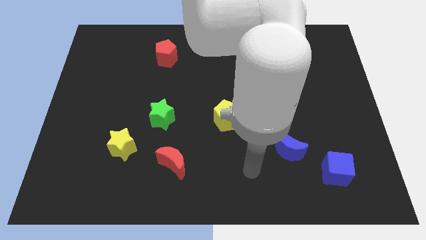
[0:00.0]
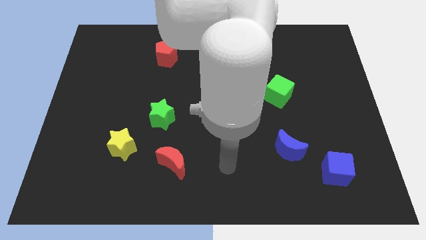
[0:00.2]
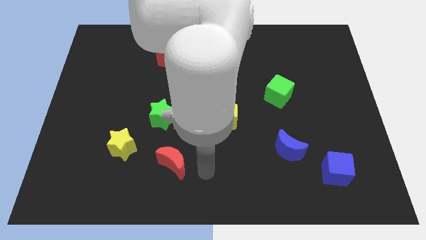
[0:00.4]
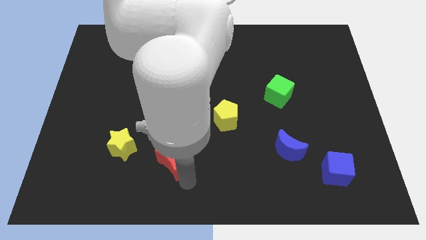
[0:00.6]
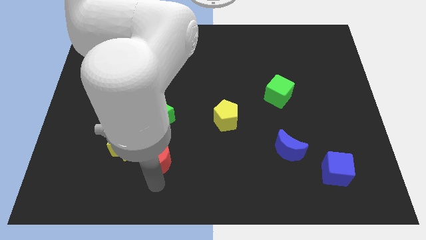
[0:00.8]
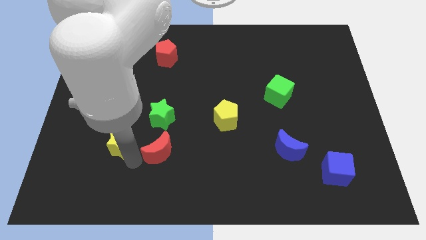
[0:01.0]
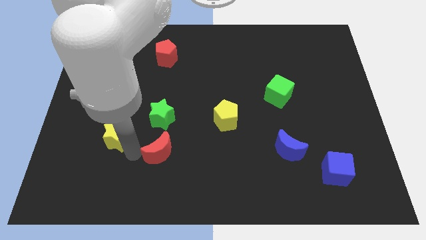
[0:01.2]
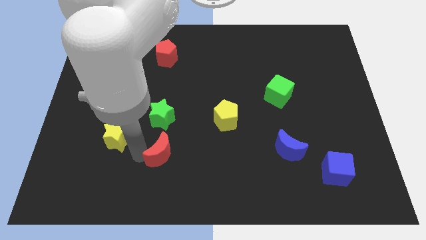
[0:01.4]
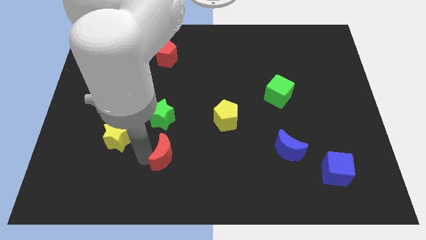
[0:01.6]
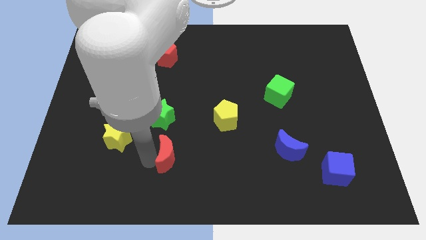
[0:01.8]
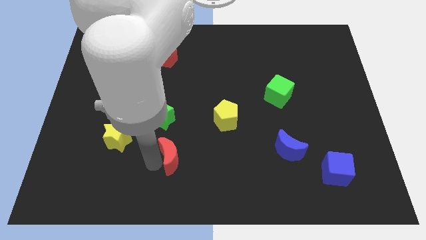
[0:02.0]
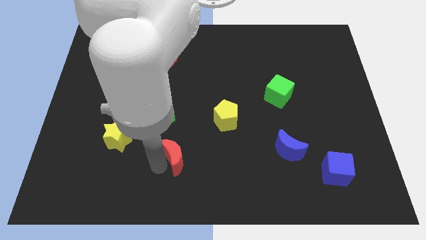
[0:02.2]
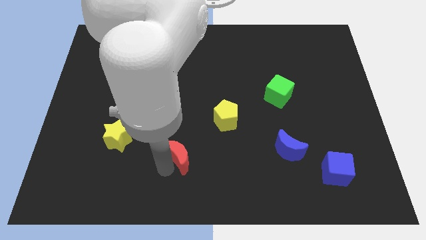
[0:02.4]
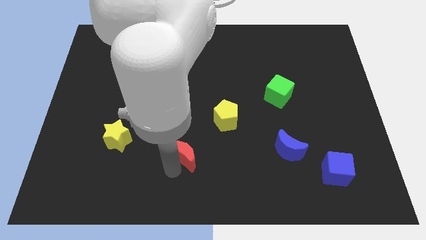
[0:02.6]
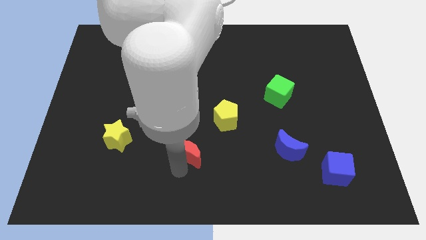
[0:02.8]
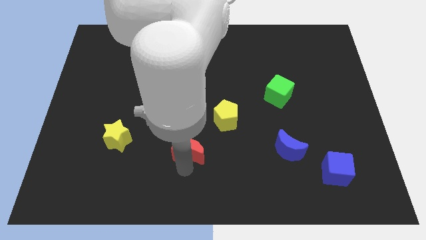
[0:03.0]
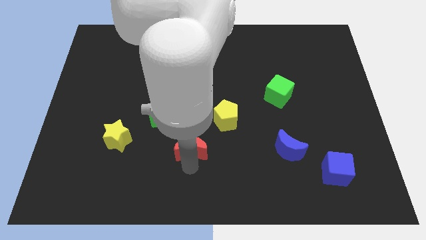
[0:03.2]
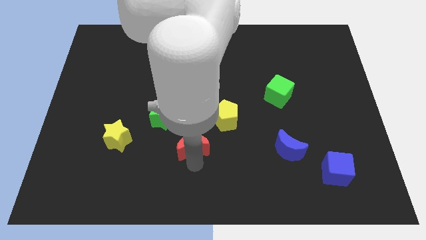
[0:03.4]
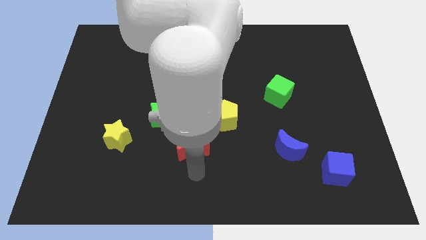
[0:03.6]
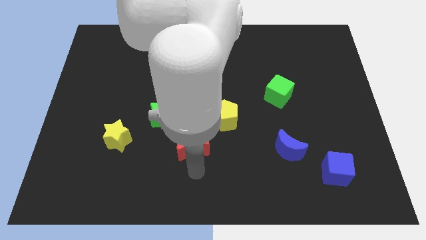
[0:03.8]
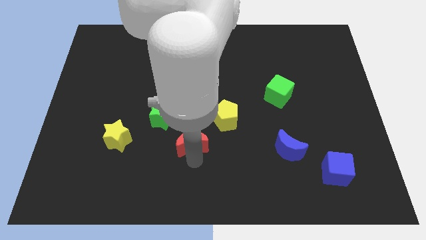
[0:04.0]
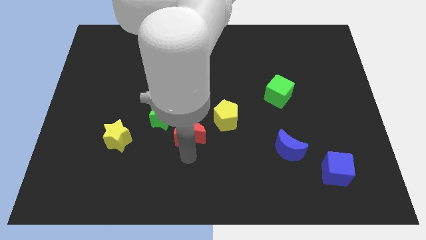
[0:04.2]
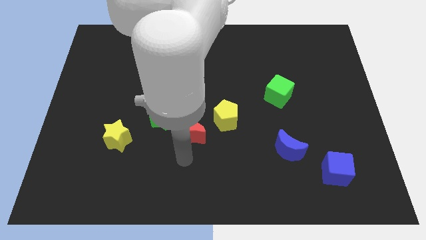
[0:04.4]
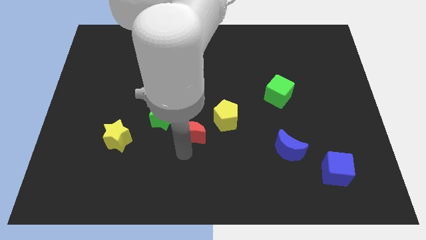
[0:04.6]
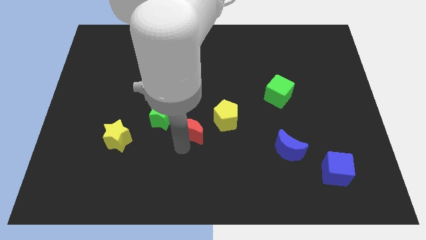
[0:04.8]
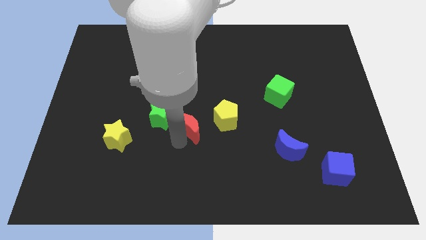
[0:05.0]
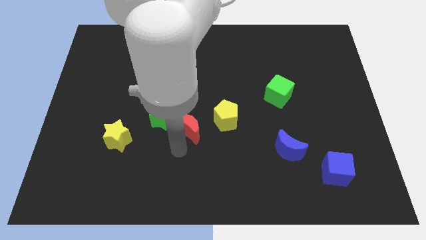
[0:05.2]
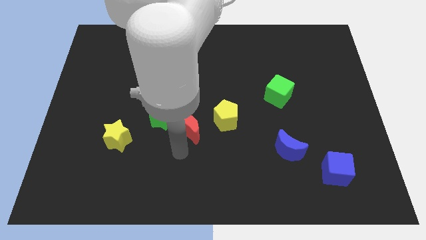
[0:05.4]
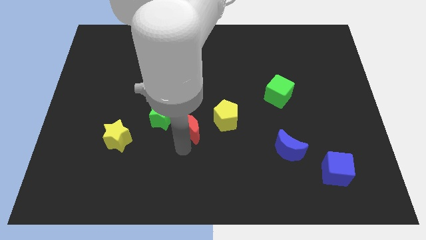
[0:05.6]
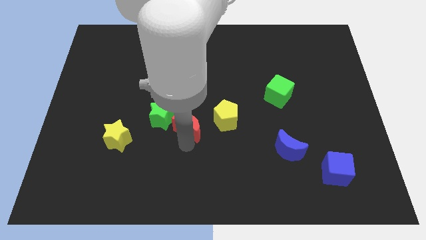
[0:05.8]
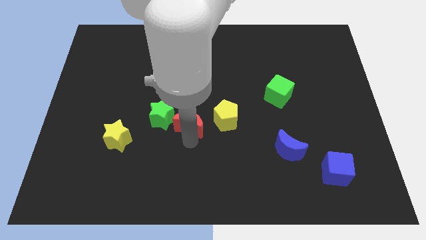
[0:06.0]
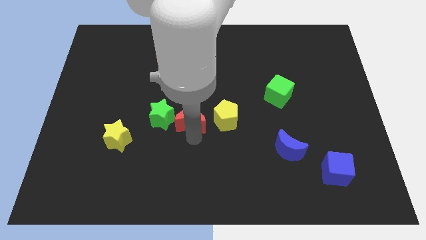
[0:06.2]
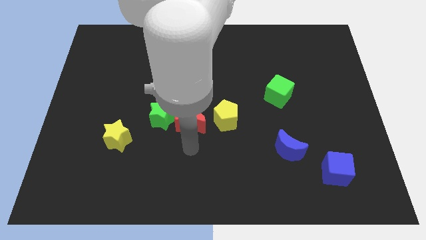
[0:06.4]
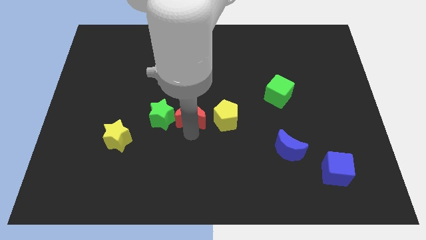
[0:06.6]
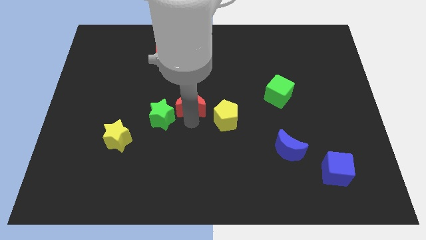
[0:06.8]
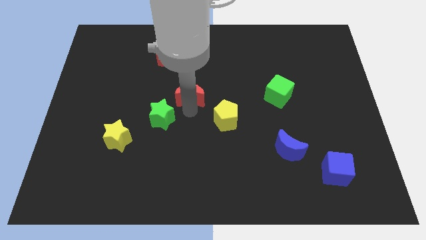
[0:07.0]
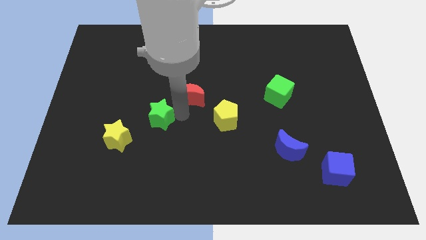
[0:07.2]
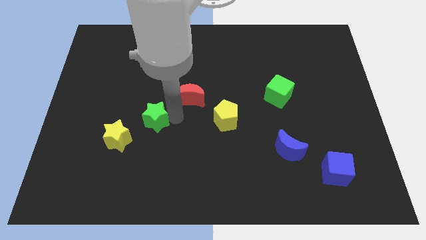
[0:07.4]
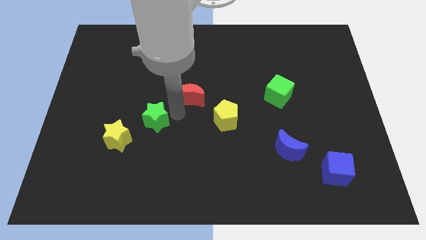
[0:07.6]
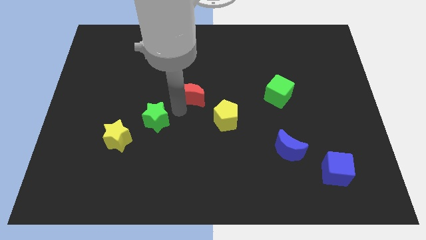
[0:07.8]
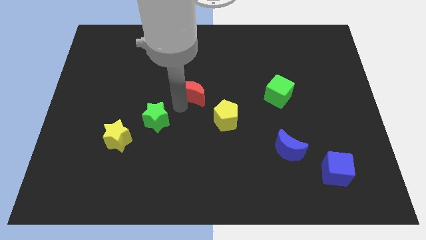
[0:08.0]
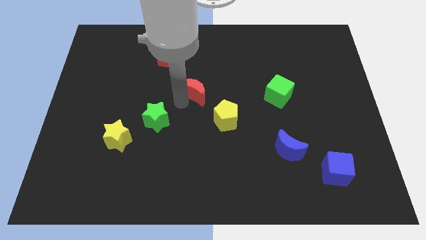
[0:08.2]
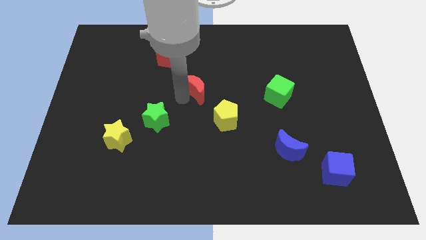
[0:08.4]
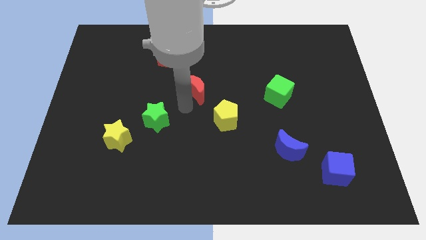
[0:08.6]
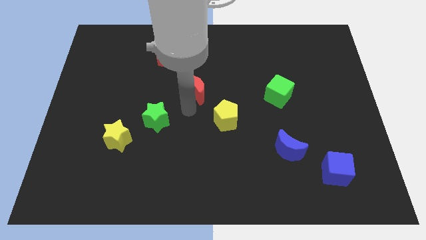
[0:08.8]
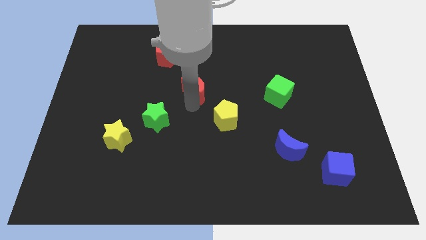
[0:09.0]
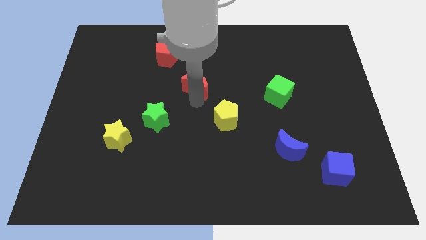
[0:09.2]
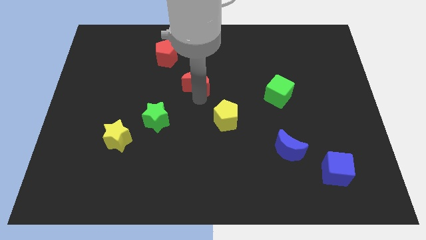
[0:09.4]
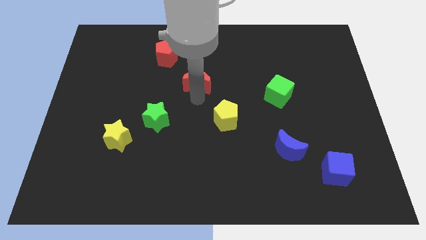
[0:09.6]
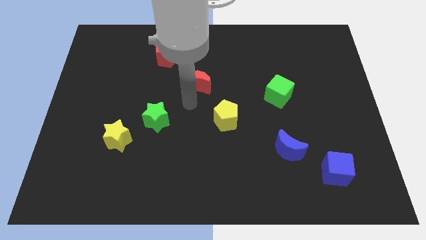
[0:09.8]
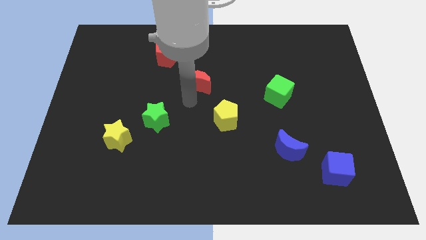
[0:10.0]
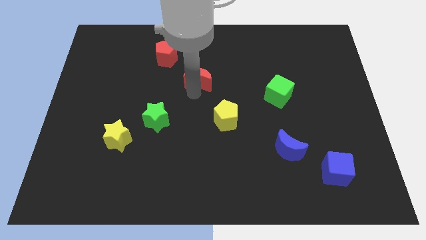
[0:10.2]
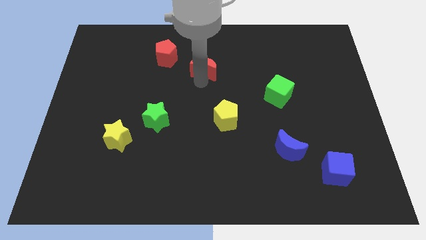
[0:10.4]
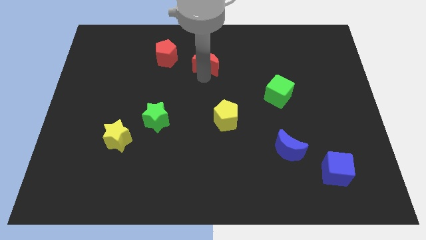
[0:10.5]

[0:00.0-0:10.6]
slide the red moon to the right side of the red pentagon

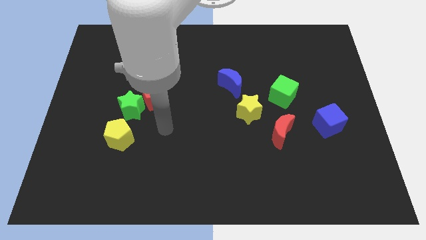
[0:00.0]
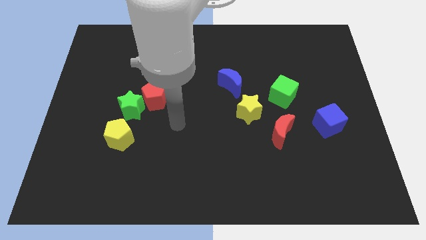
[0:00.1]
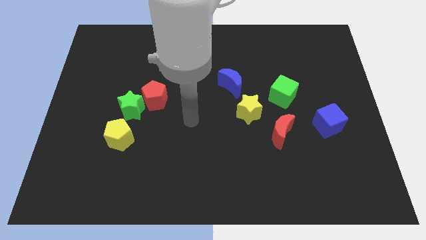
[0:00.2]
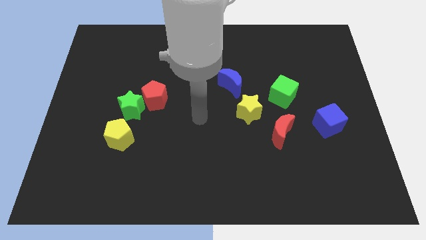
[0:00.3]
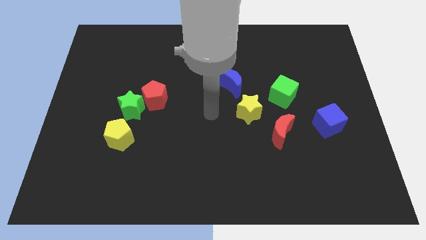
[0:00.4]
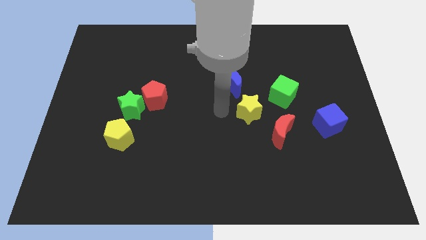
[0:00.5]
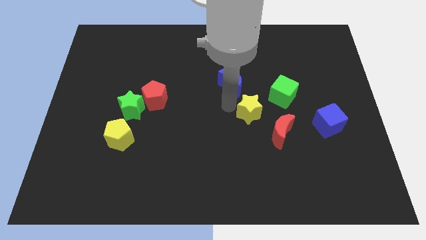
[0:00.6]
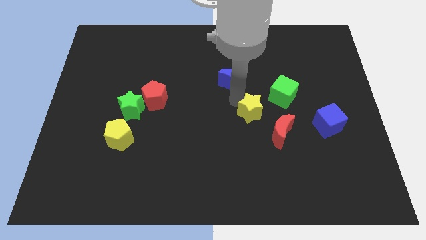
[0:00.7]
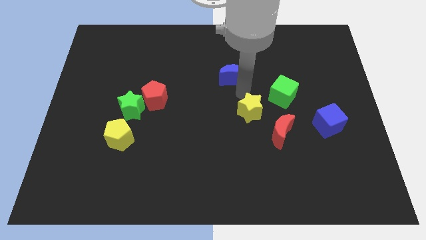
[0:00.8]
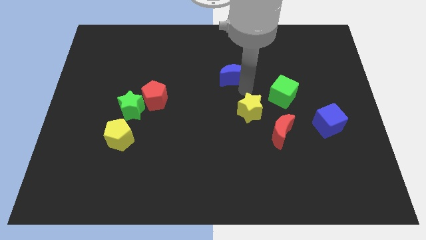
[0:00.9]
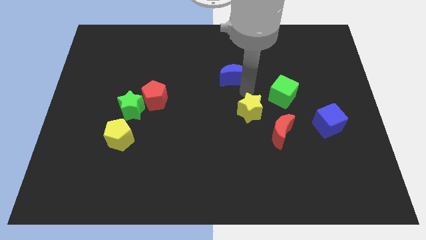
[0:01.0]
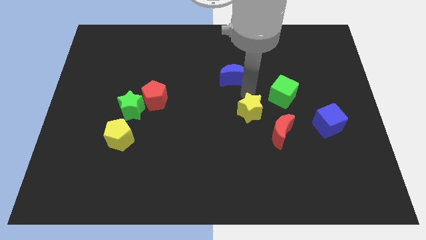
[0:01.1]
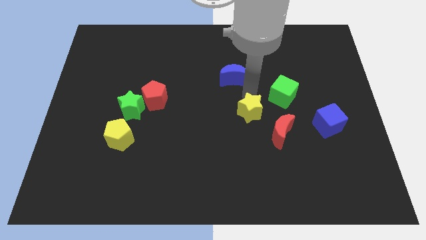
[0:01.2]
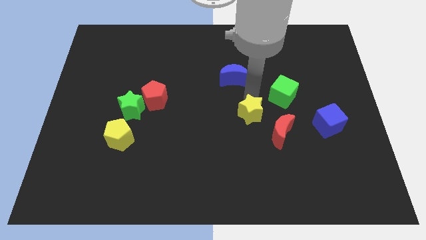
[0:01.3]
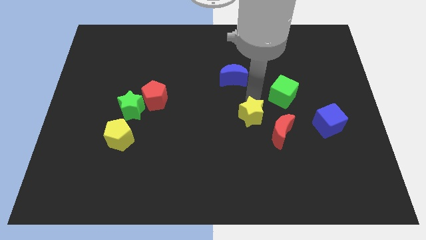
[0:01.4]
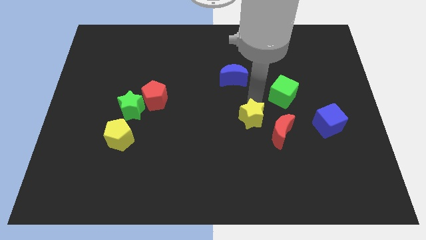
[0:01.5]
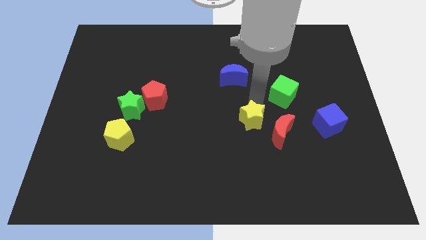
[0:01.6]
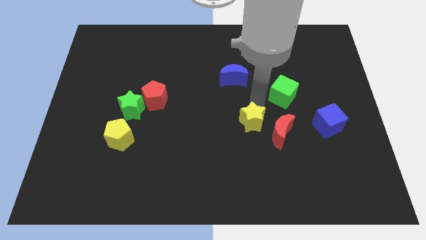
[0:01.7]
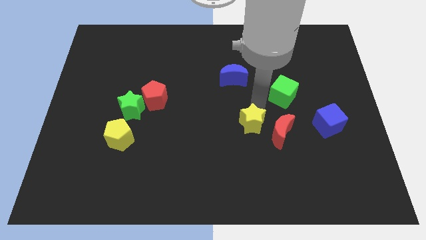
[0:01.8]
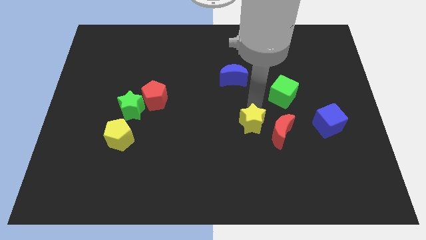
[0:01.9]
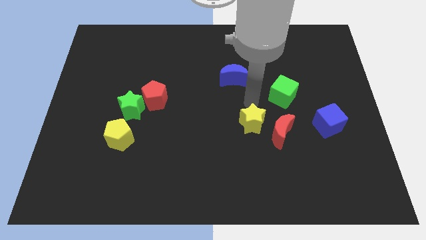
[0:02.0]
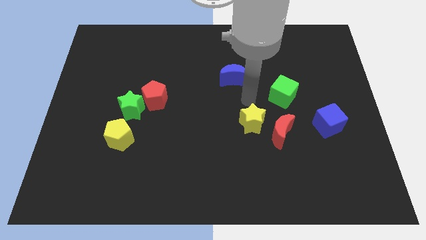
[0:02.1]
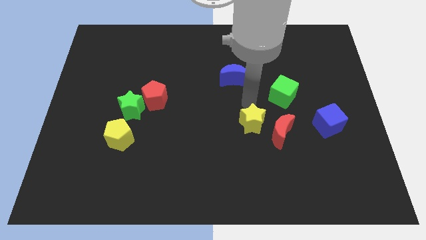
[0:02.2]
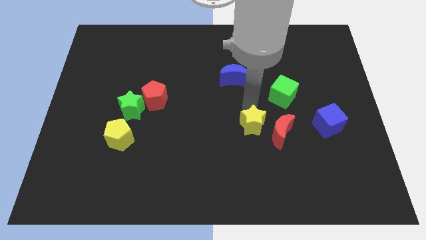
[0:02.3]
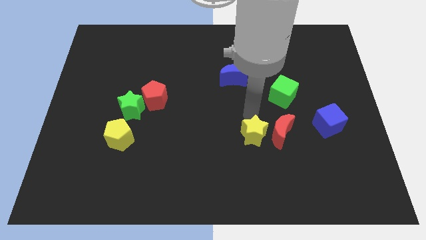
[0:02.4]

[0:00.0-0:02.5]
push the yellow star to the bottom left of the red moon
